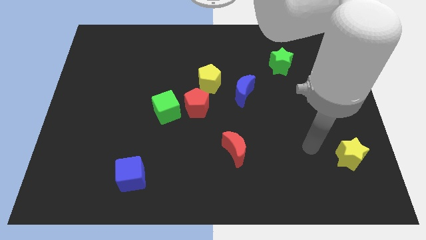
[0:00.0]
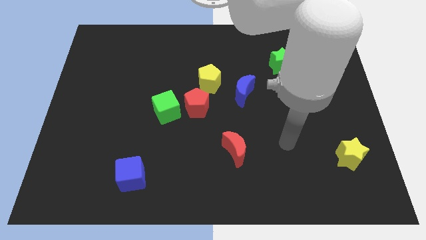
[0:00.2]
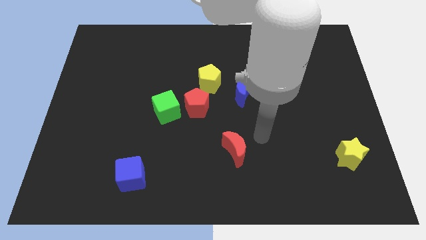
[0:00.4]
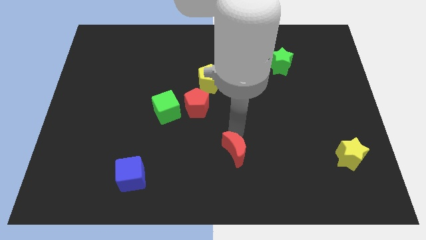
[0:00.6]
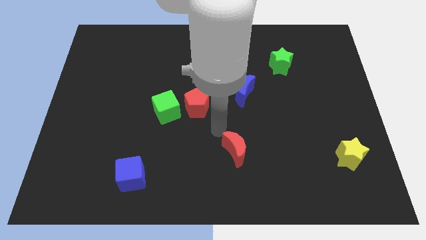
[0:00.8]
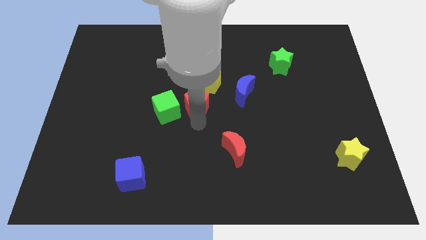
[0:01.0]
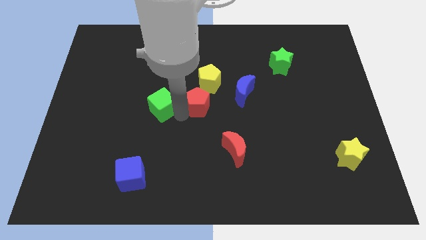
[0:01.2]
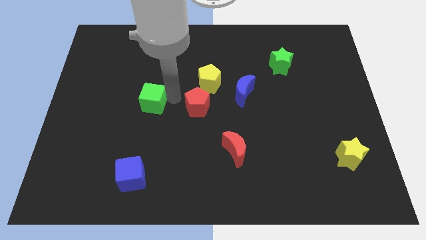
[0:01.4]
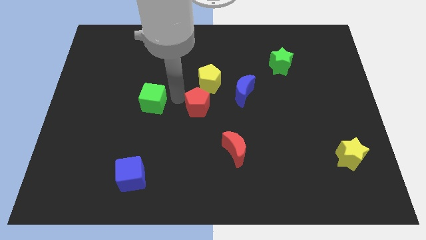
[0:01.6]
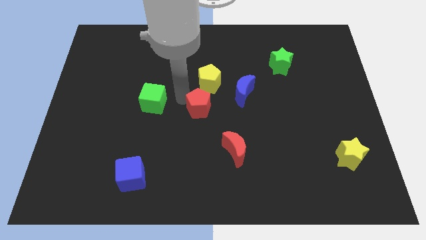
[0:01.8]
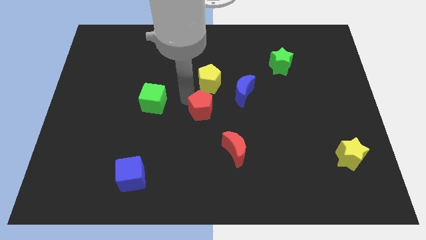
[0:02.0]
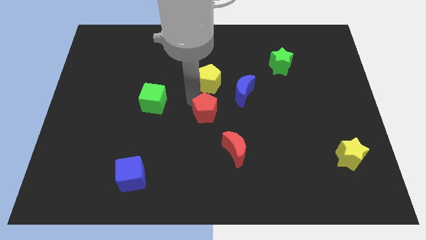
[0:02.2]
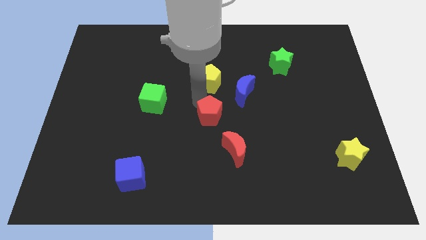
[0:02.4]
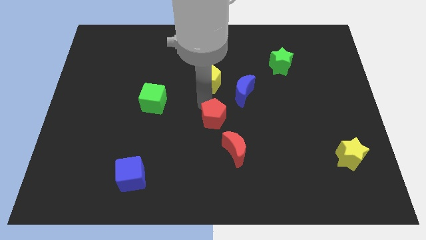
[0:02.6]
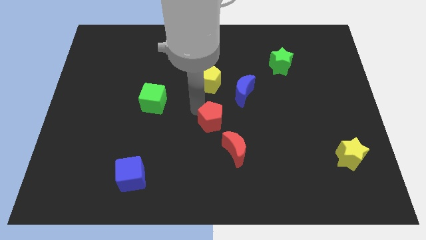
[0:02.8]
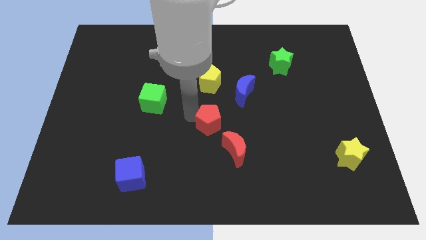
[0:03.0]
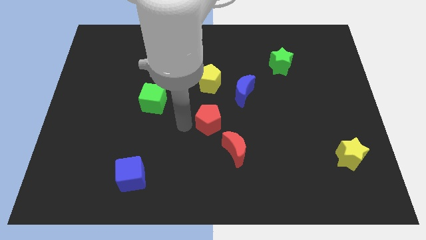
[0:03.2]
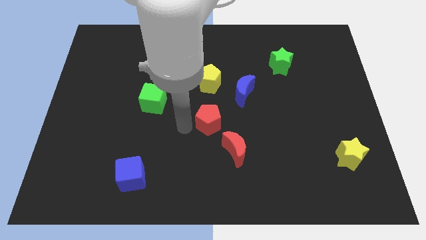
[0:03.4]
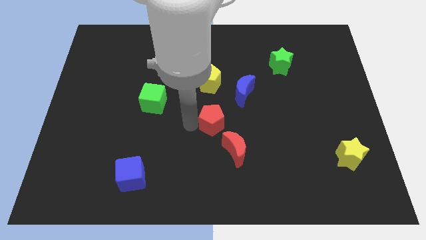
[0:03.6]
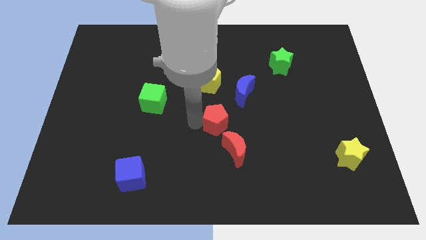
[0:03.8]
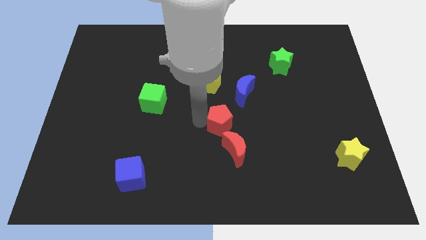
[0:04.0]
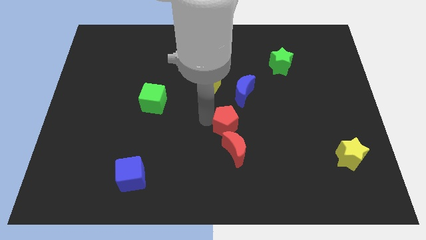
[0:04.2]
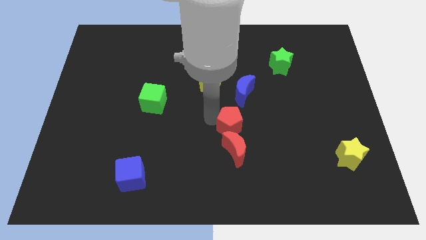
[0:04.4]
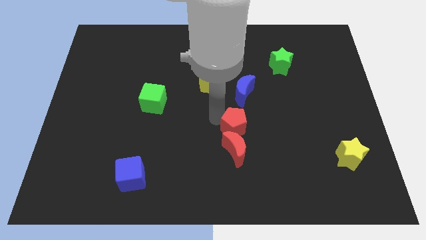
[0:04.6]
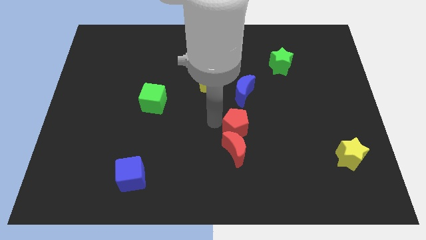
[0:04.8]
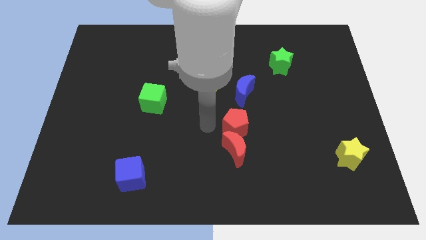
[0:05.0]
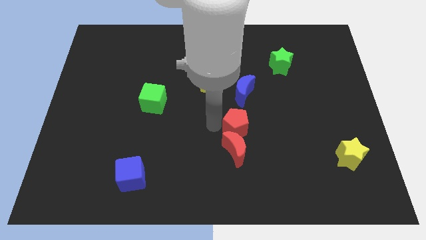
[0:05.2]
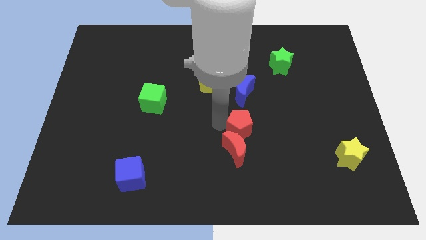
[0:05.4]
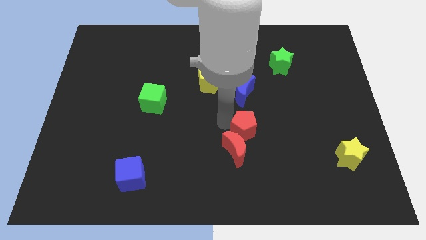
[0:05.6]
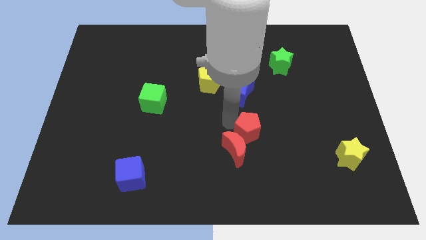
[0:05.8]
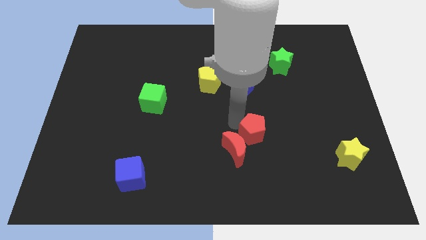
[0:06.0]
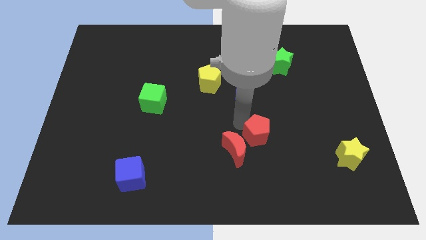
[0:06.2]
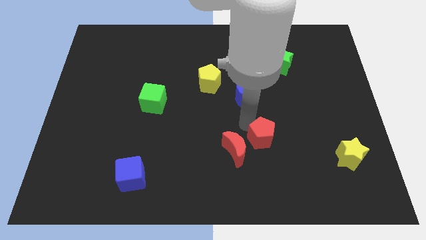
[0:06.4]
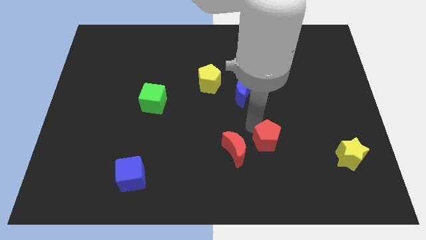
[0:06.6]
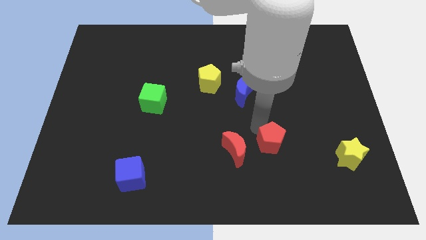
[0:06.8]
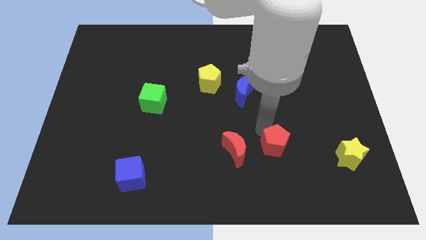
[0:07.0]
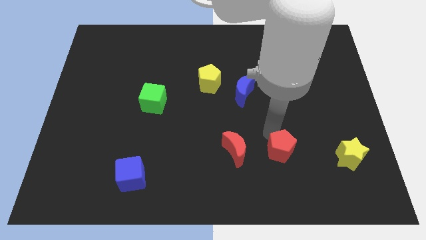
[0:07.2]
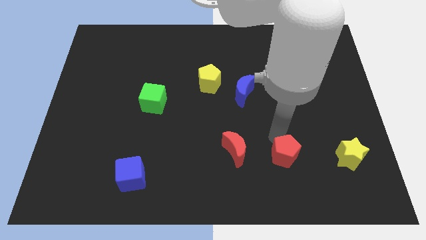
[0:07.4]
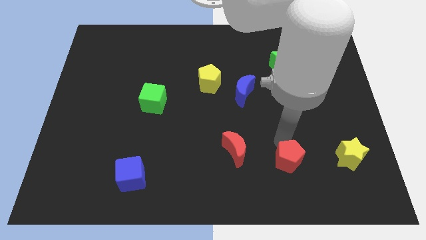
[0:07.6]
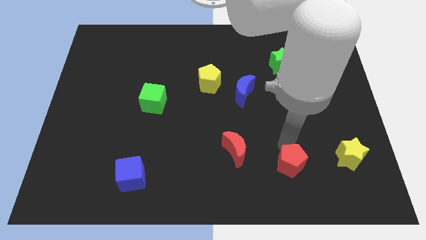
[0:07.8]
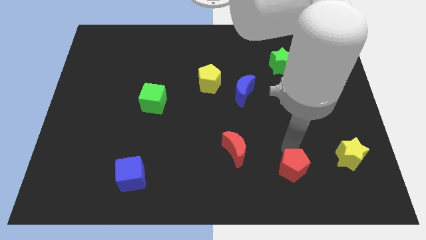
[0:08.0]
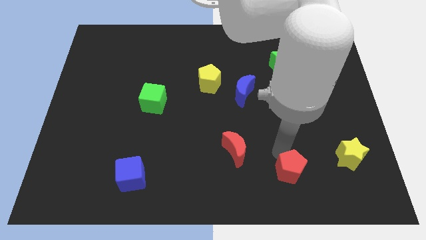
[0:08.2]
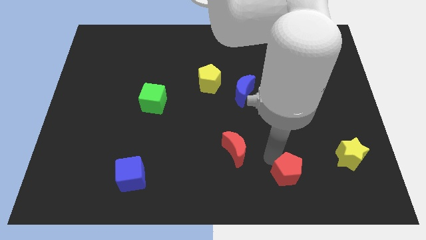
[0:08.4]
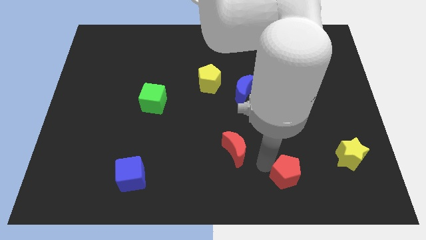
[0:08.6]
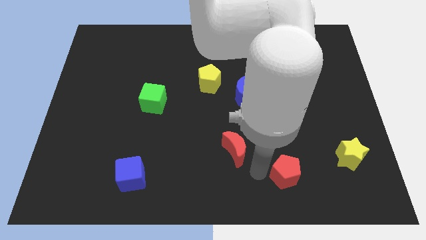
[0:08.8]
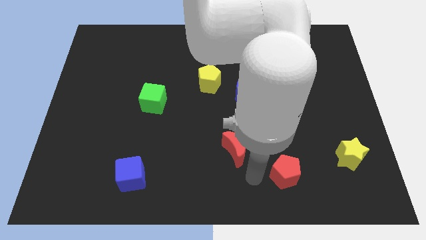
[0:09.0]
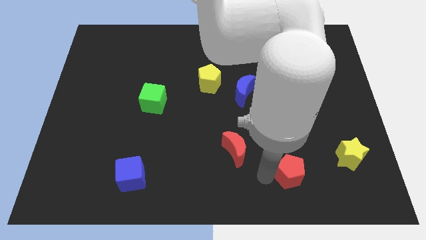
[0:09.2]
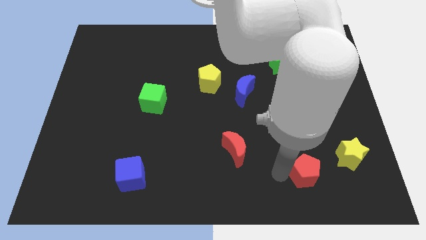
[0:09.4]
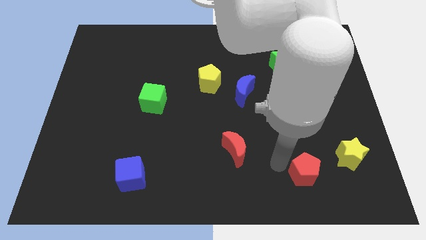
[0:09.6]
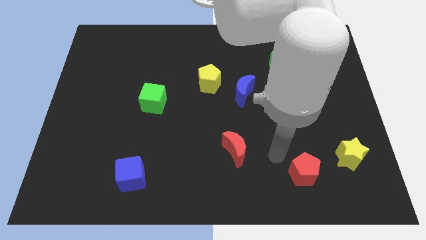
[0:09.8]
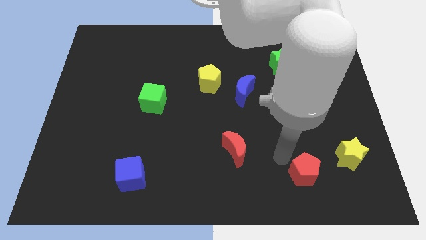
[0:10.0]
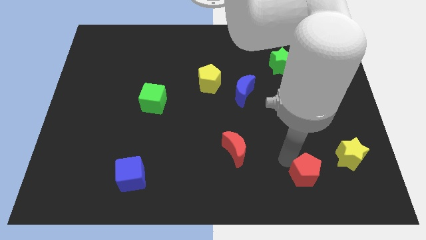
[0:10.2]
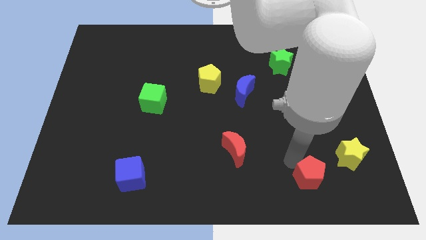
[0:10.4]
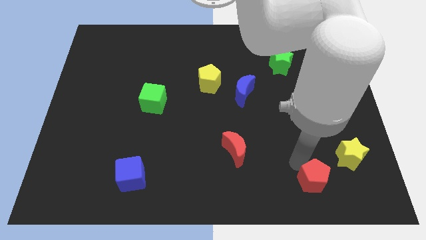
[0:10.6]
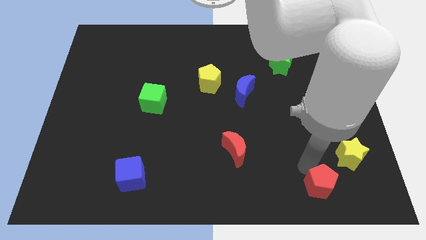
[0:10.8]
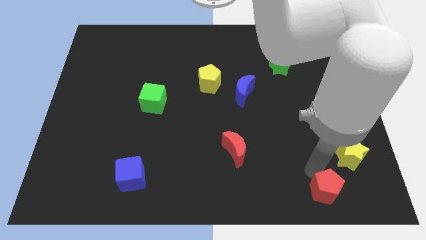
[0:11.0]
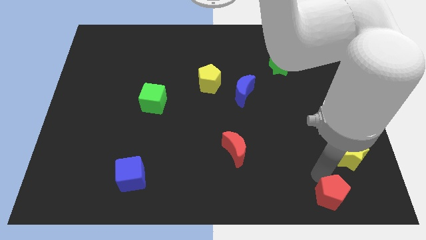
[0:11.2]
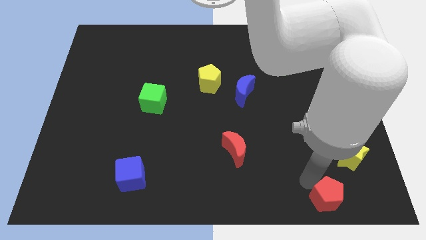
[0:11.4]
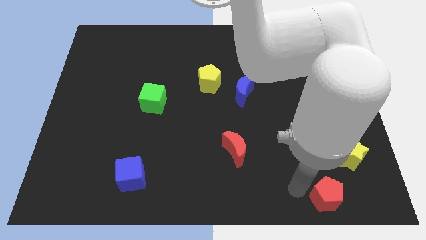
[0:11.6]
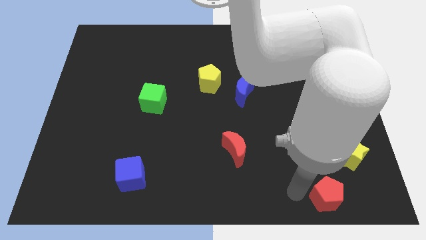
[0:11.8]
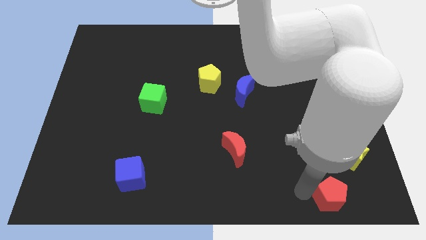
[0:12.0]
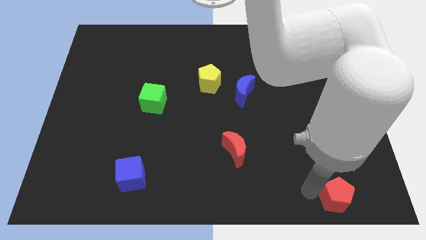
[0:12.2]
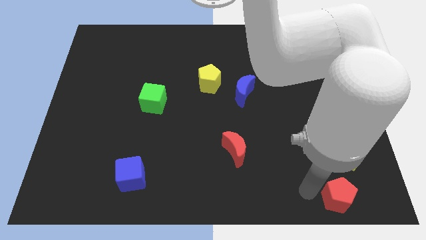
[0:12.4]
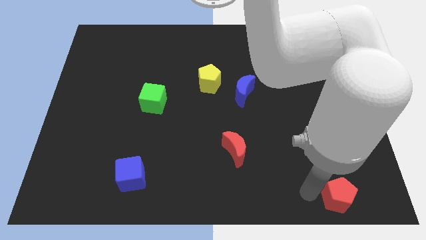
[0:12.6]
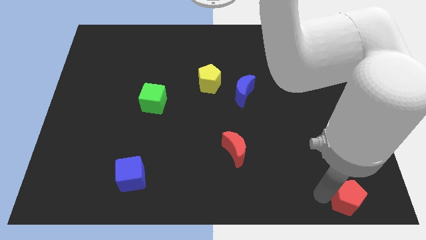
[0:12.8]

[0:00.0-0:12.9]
slide the red pentagon to the bottom right of the board

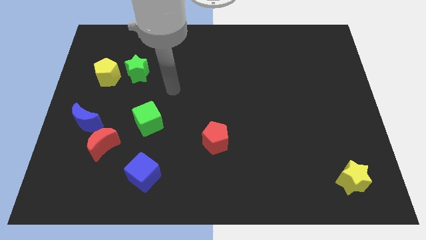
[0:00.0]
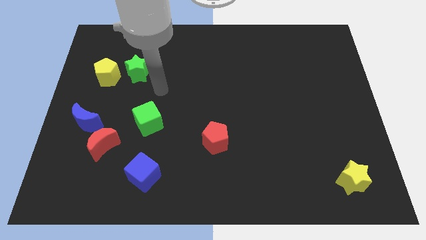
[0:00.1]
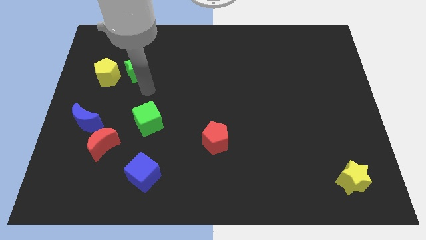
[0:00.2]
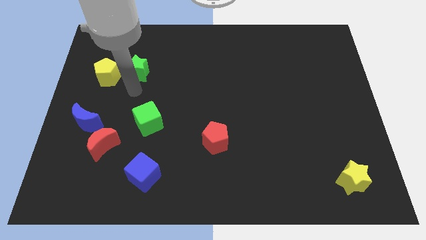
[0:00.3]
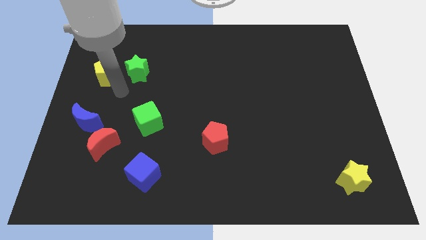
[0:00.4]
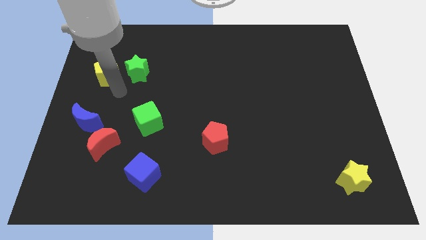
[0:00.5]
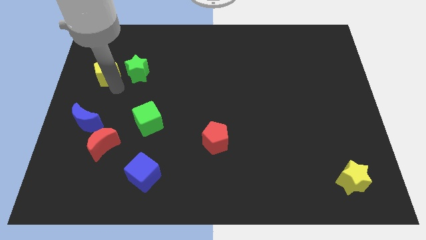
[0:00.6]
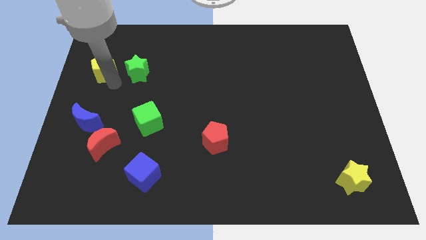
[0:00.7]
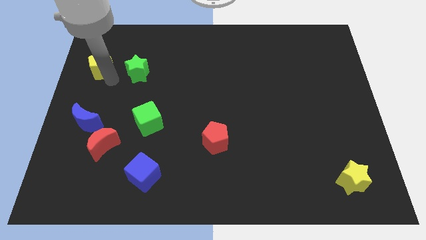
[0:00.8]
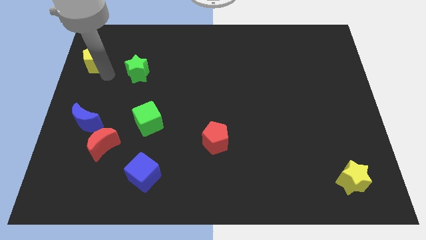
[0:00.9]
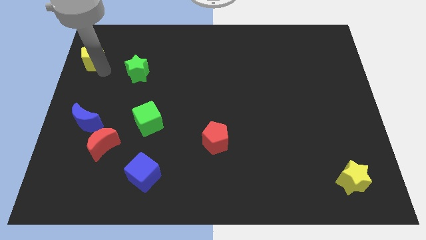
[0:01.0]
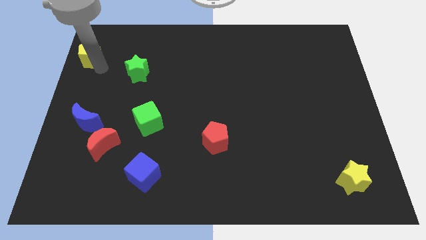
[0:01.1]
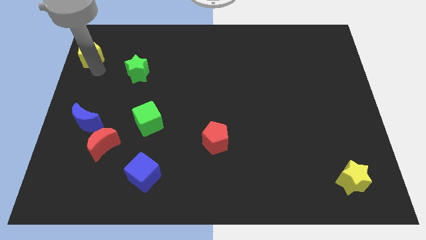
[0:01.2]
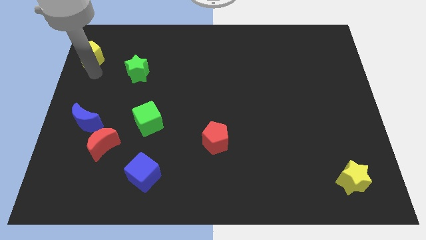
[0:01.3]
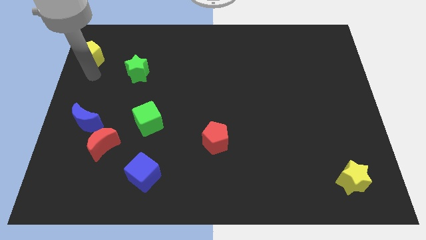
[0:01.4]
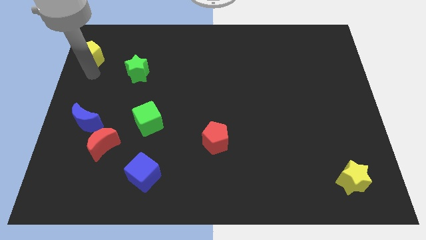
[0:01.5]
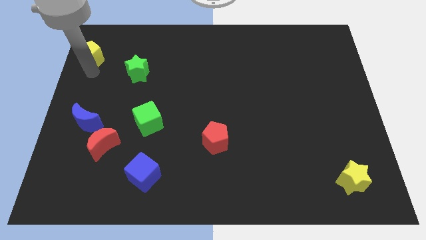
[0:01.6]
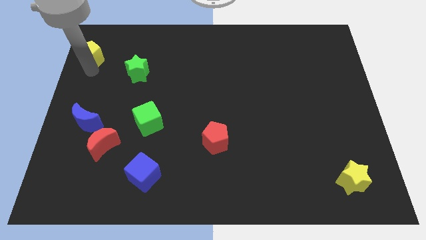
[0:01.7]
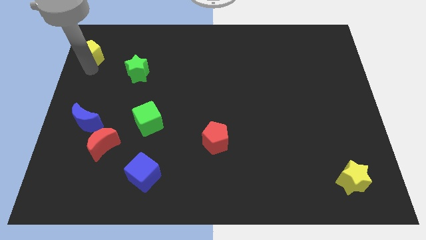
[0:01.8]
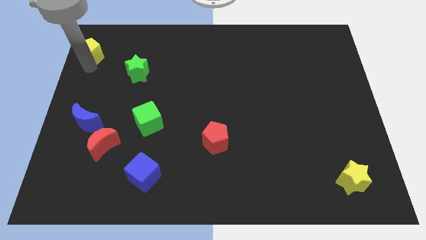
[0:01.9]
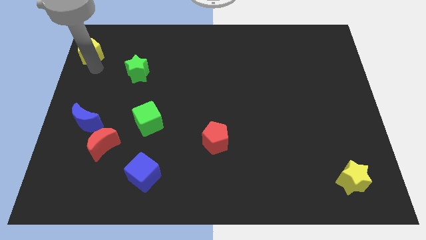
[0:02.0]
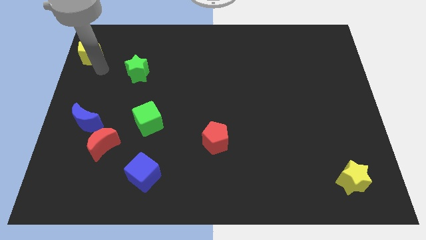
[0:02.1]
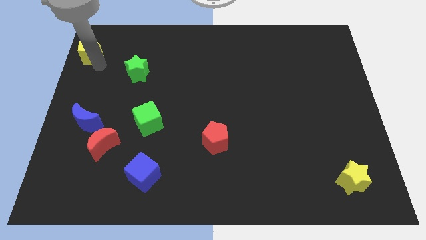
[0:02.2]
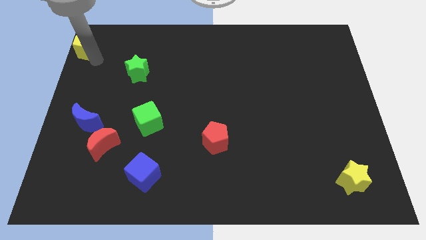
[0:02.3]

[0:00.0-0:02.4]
put the yellow pentagon to the top left
